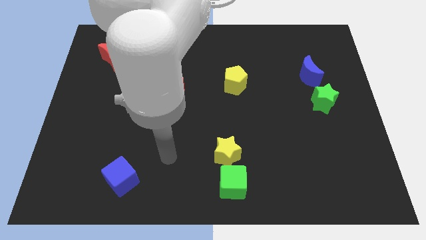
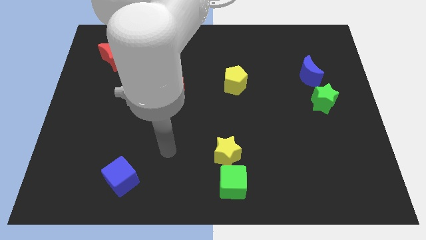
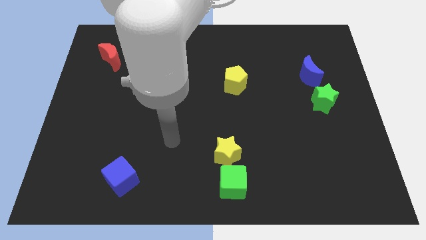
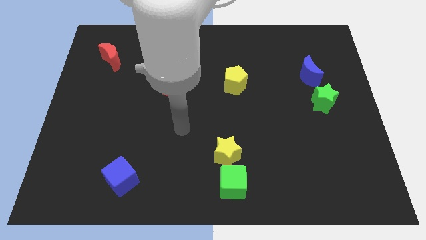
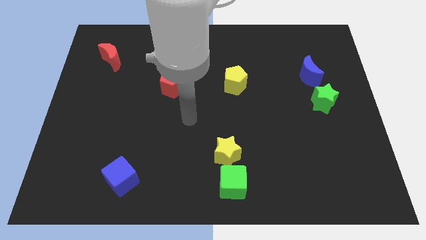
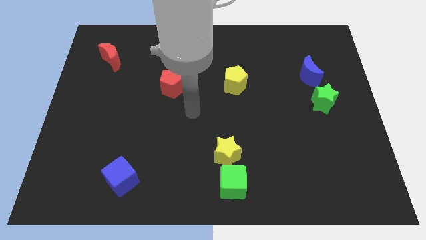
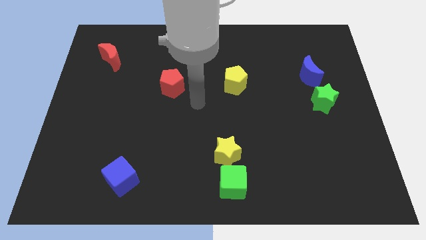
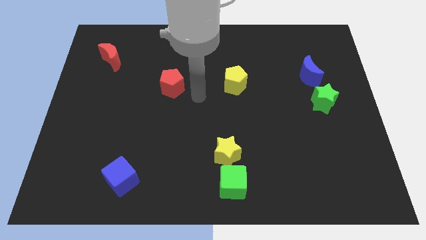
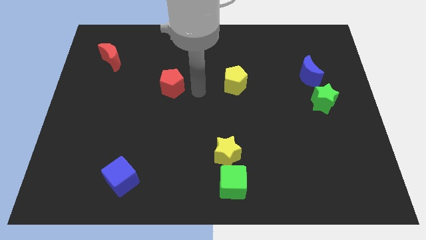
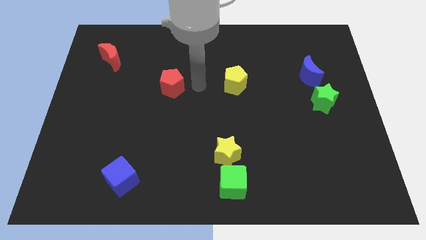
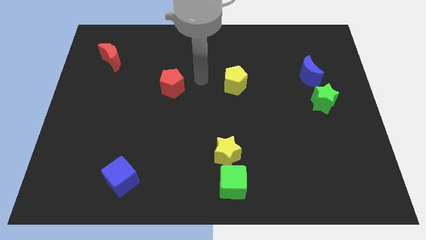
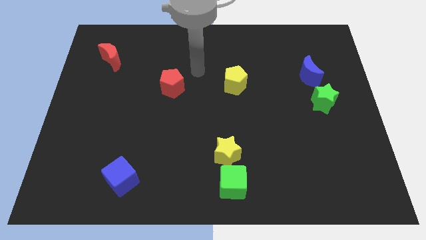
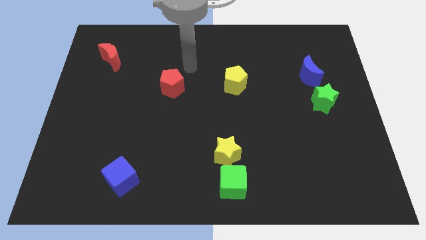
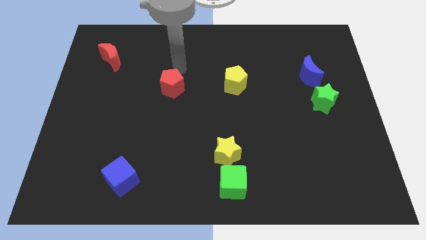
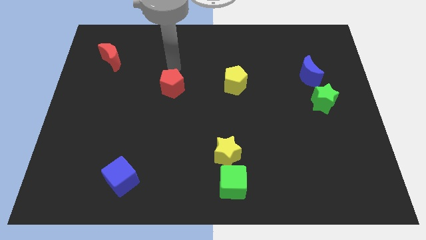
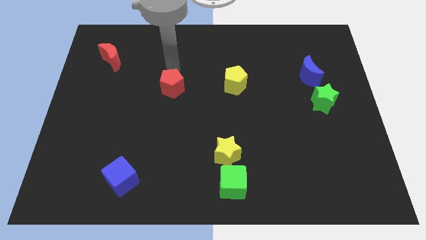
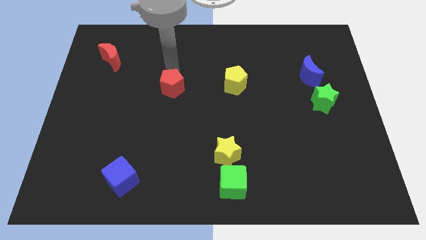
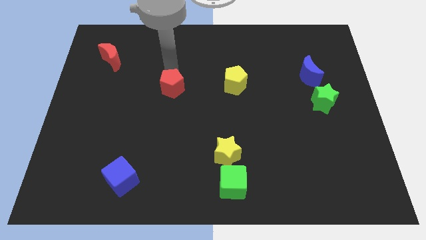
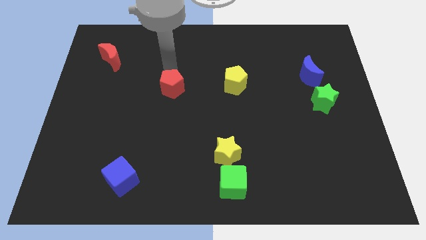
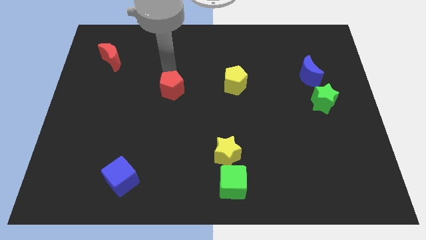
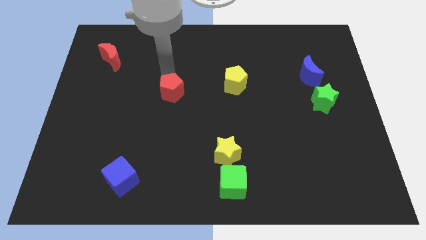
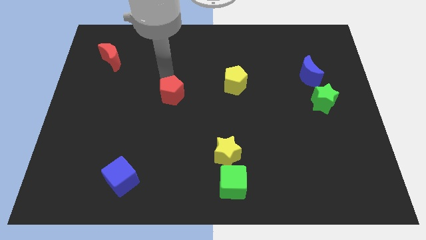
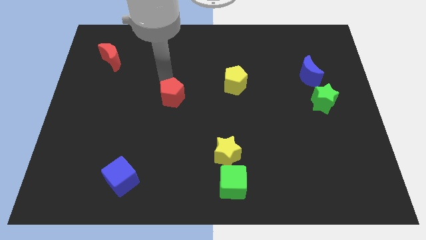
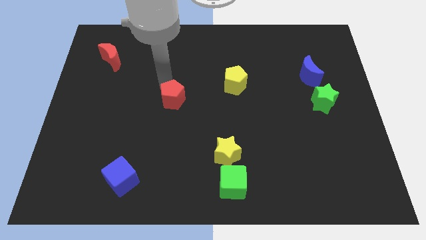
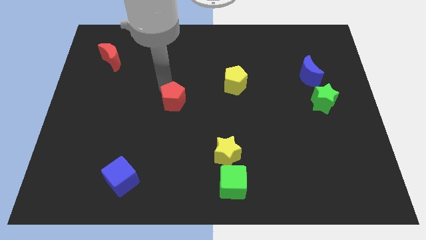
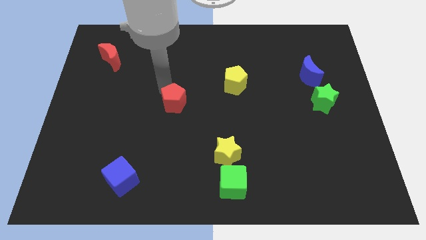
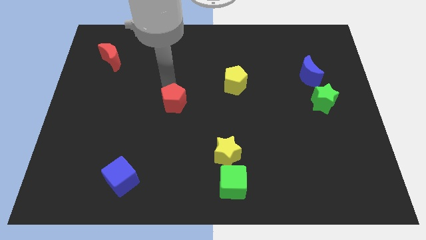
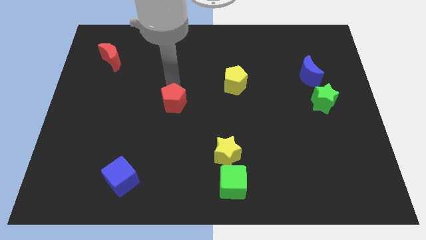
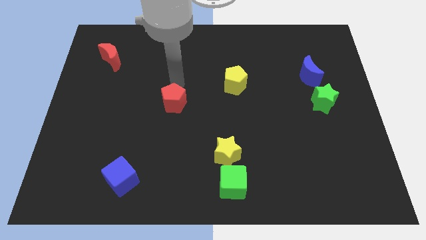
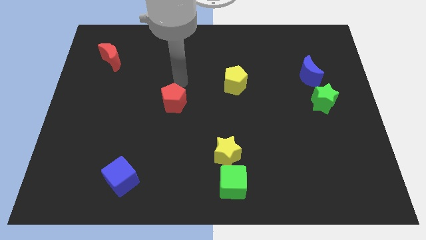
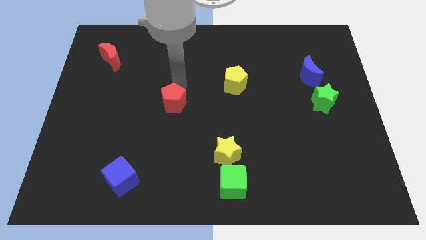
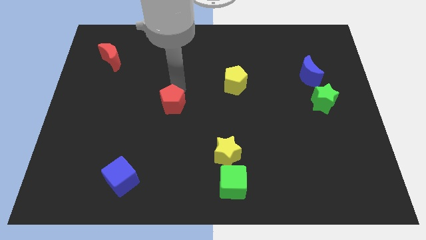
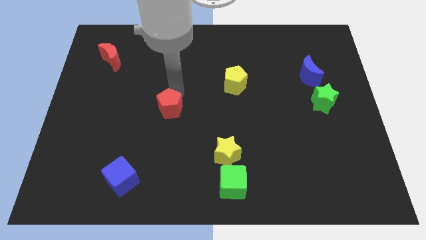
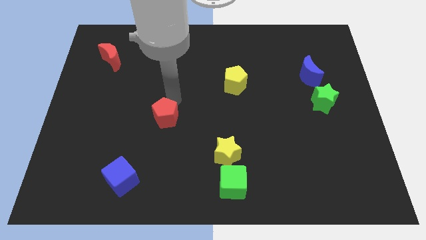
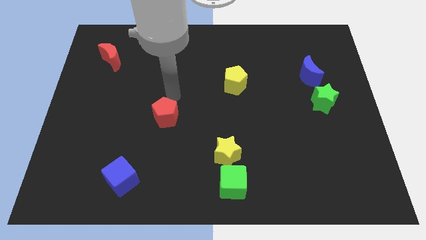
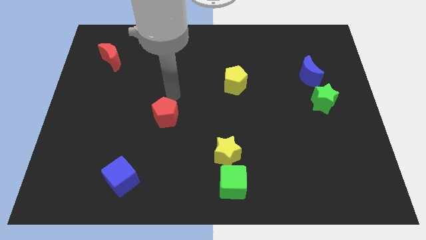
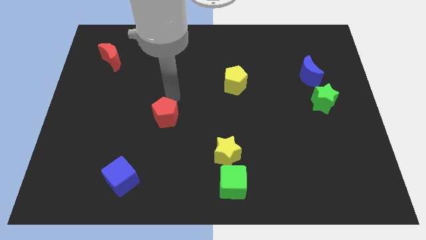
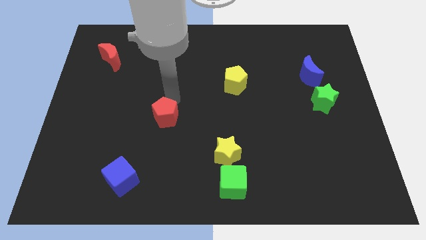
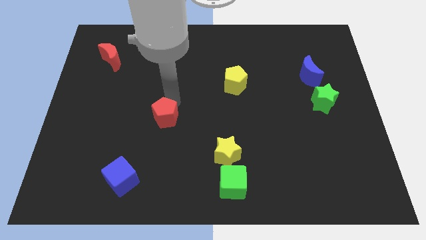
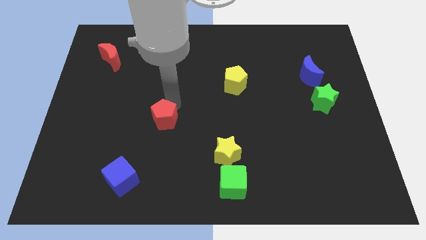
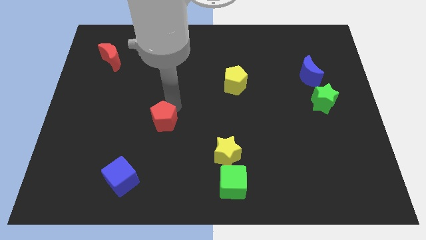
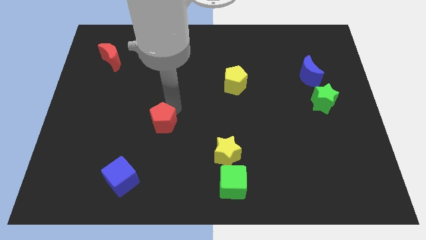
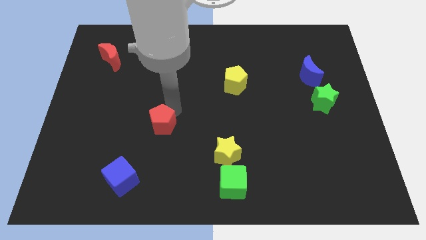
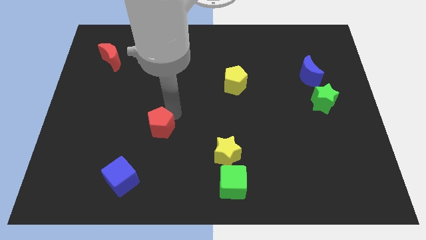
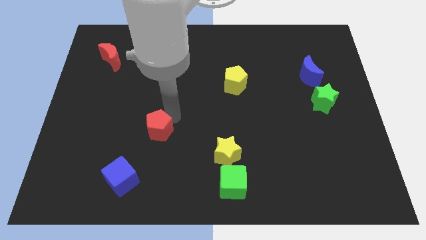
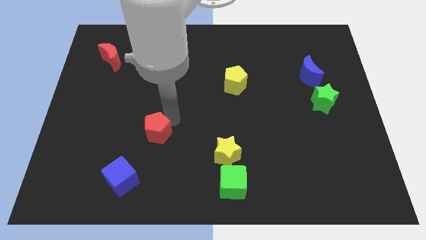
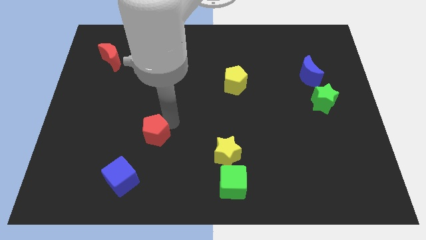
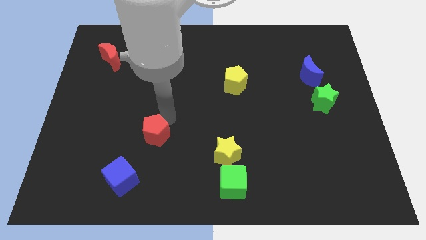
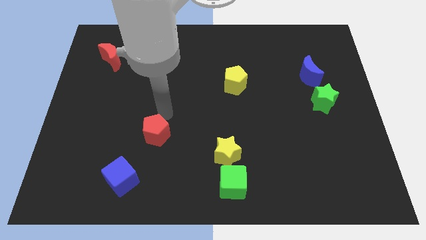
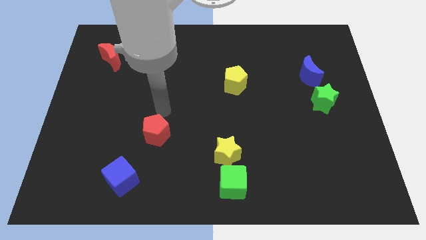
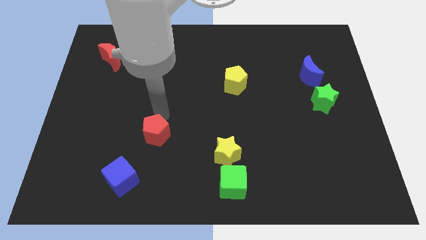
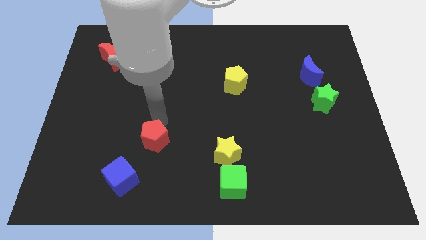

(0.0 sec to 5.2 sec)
move the red pentagon to the top right of the blue cube

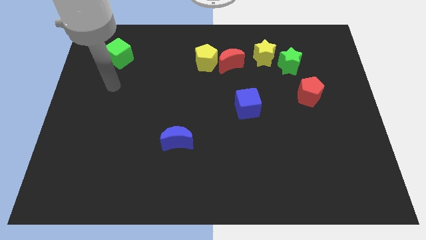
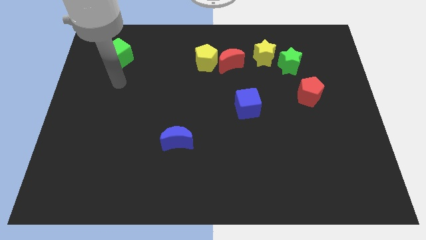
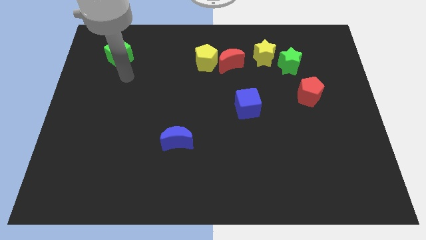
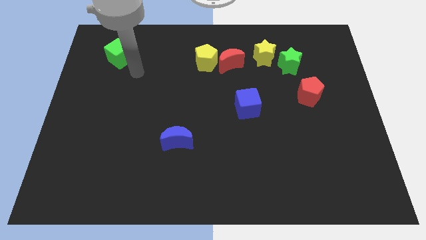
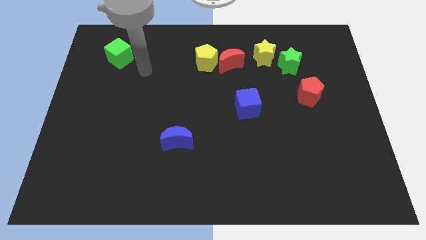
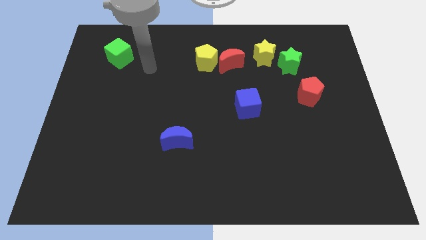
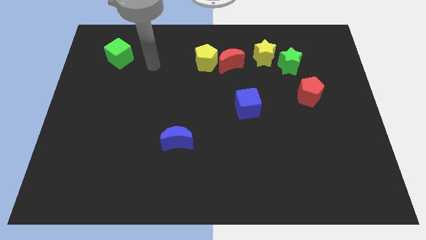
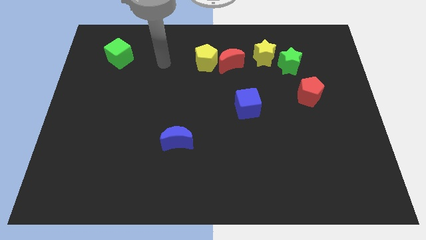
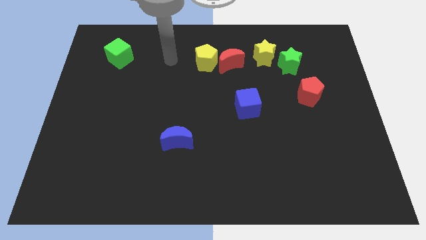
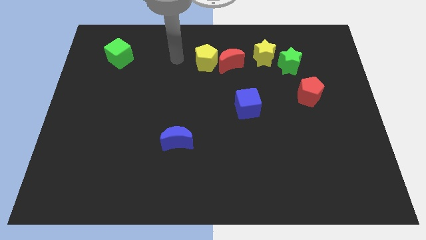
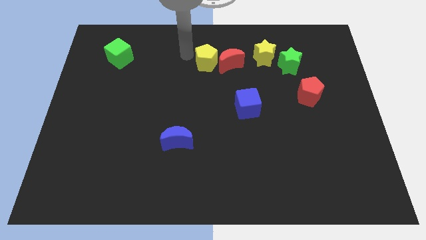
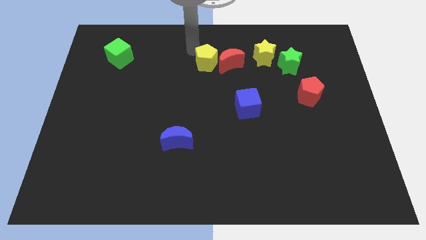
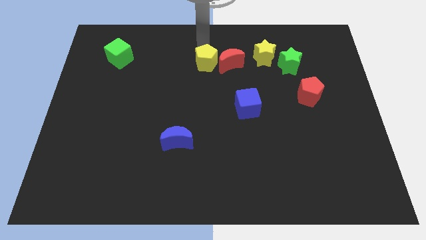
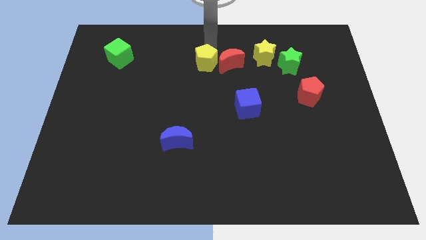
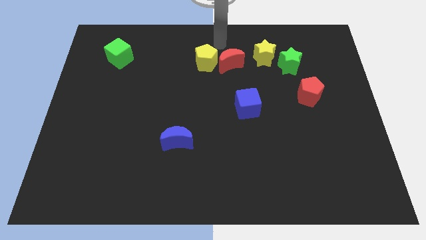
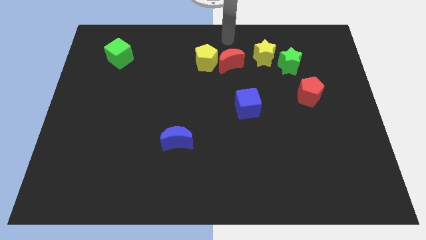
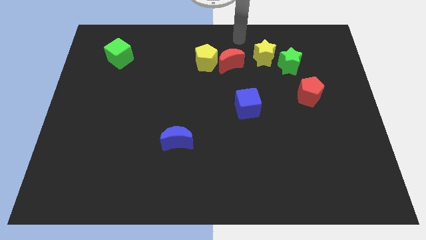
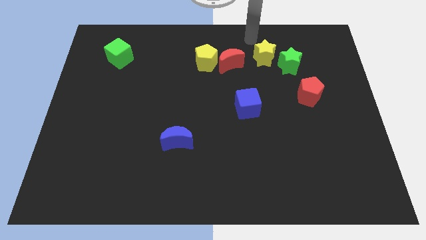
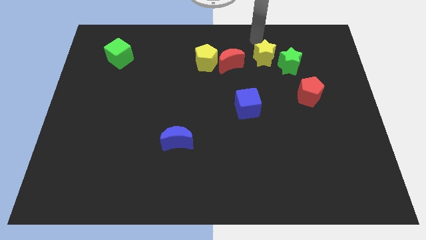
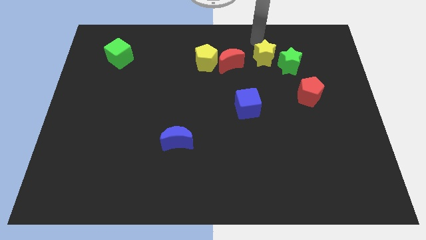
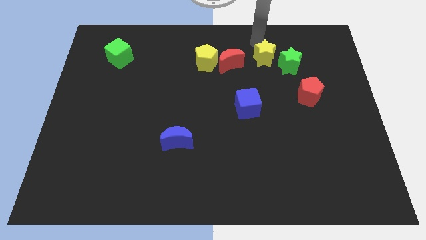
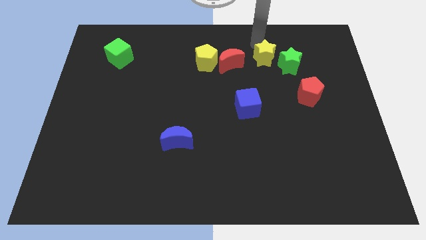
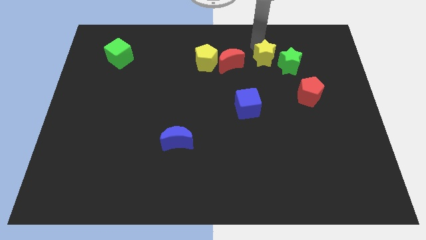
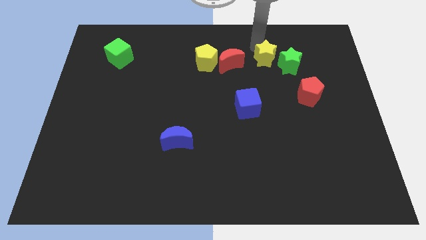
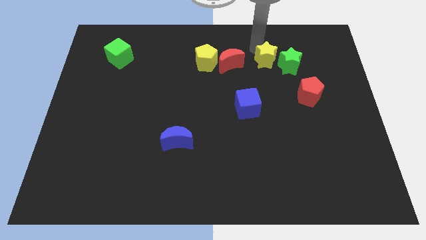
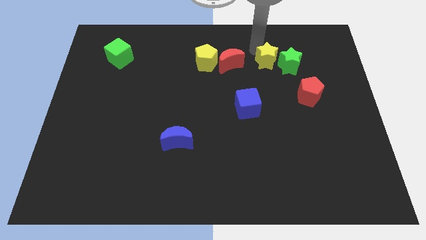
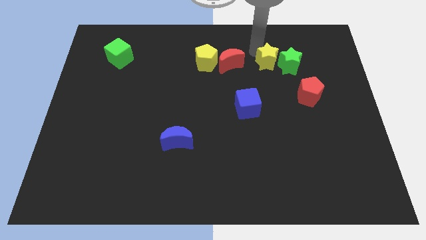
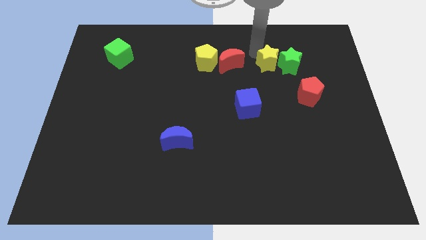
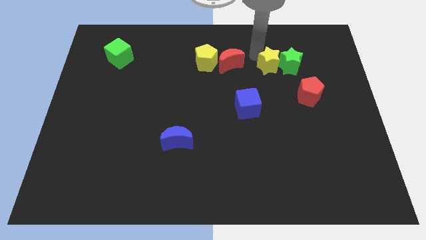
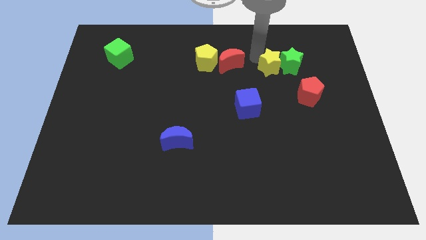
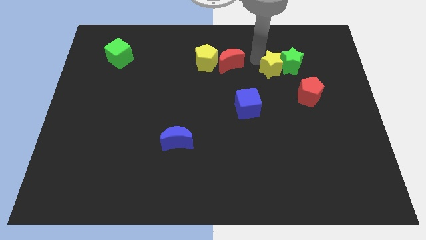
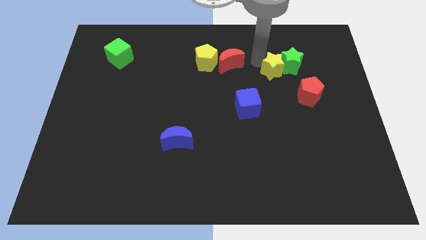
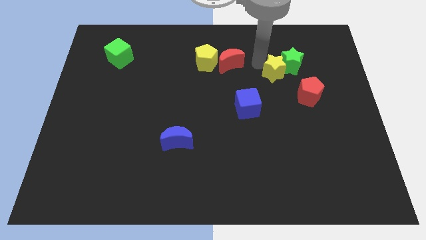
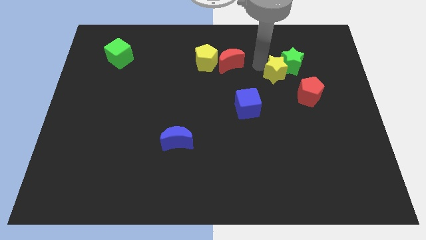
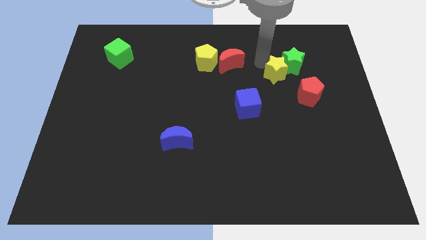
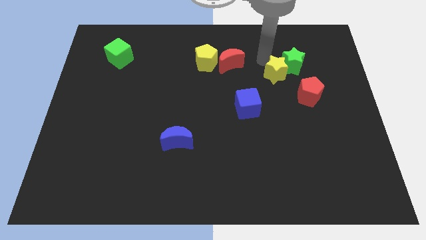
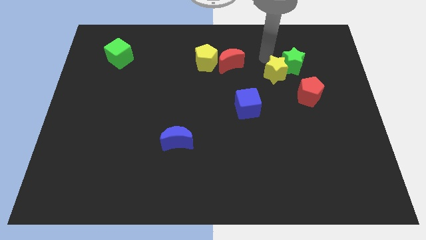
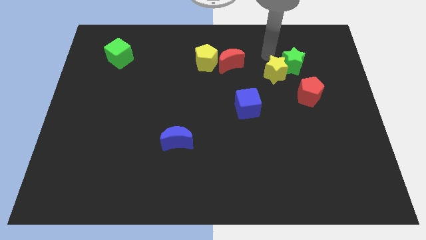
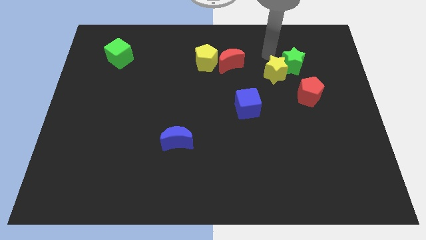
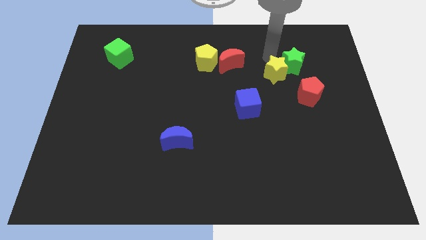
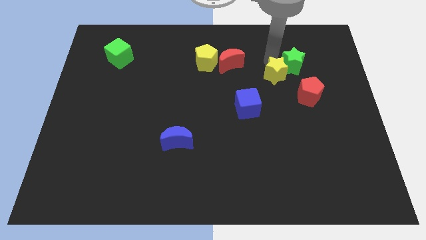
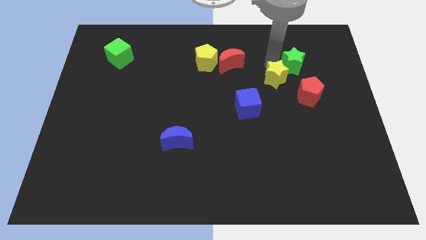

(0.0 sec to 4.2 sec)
move the yellow star to the bottom side of the green star
